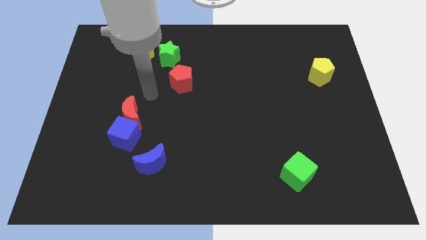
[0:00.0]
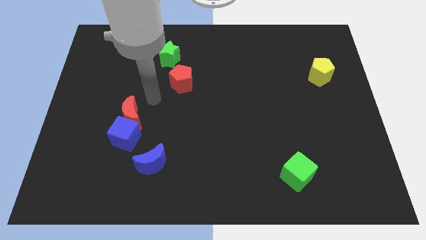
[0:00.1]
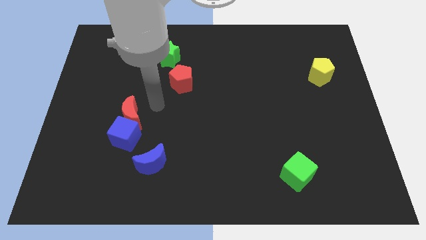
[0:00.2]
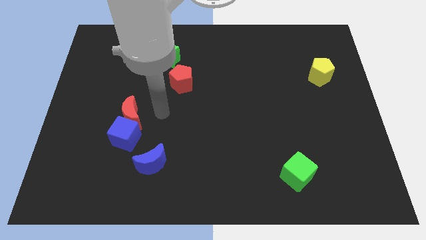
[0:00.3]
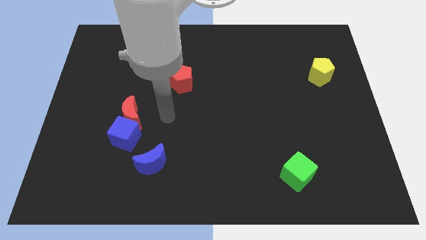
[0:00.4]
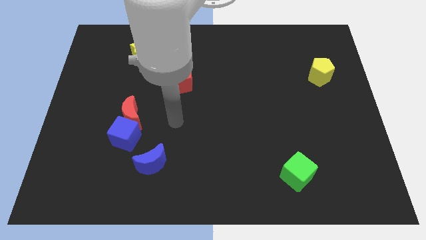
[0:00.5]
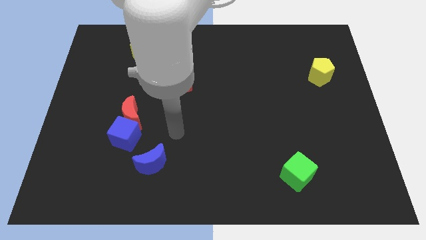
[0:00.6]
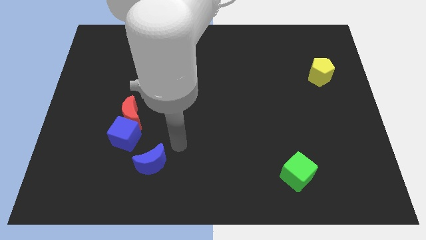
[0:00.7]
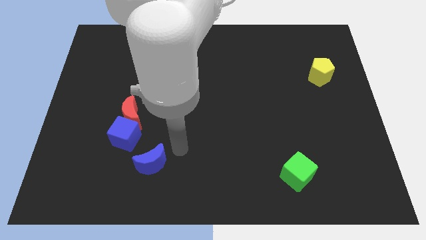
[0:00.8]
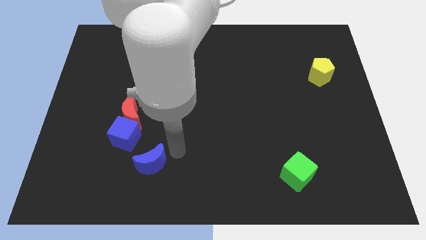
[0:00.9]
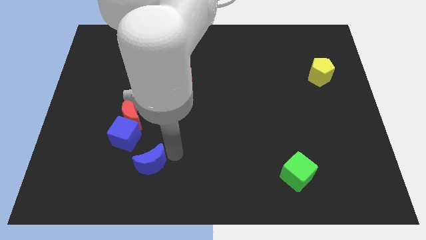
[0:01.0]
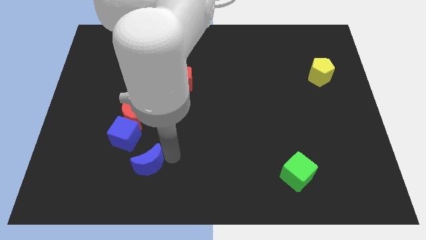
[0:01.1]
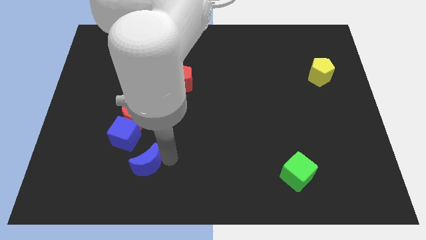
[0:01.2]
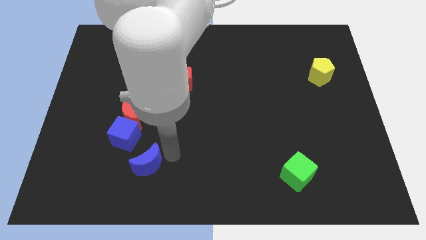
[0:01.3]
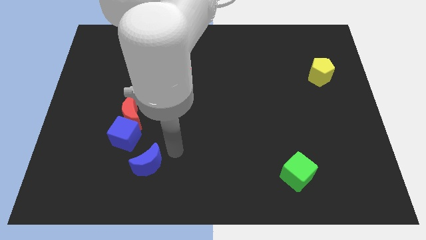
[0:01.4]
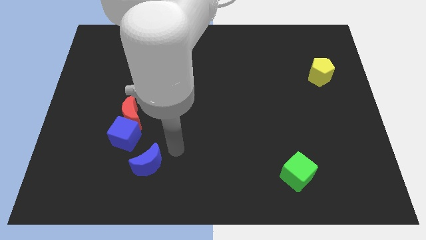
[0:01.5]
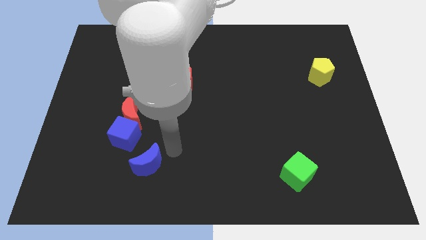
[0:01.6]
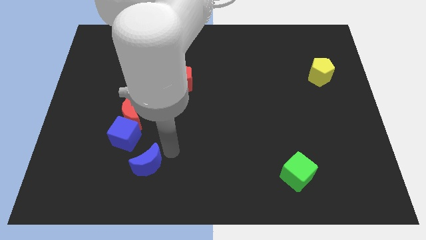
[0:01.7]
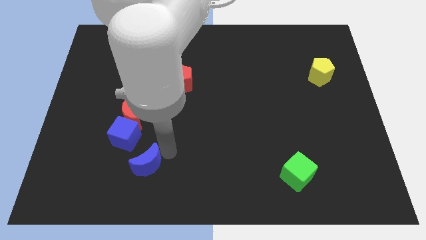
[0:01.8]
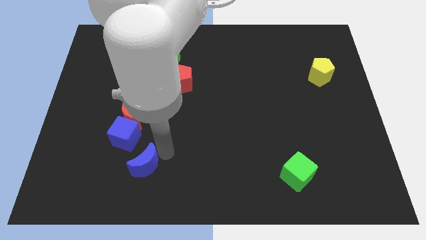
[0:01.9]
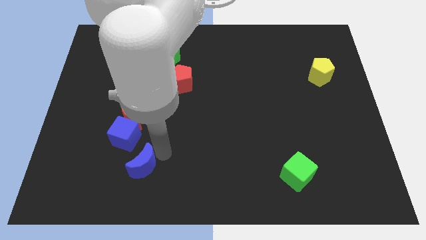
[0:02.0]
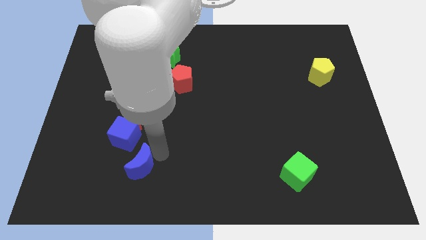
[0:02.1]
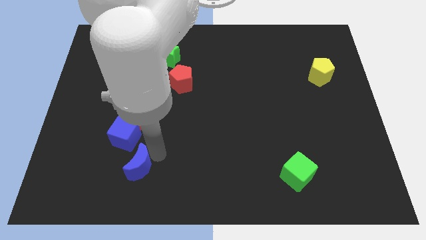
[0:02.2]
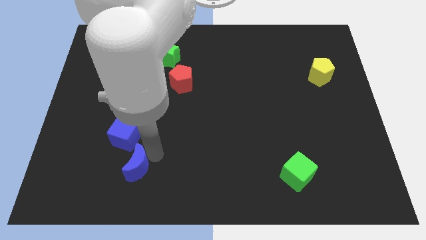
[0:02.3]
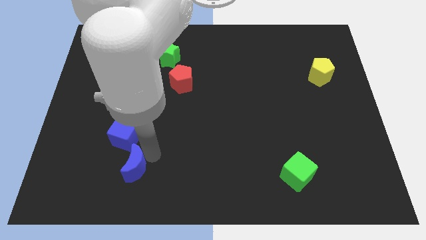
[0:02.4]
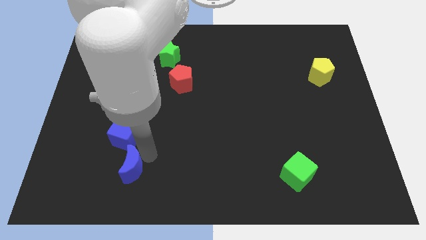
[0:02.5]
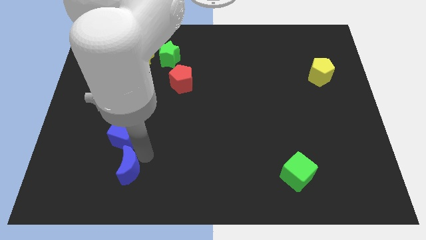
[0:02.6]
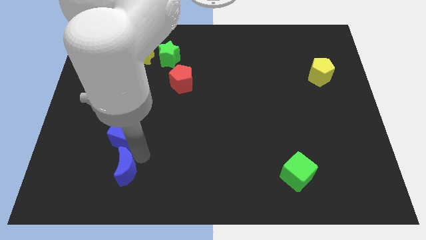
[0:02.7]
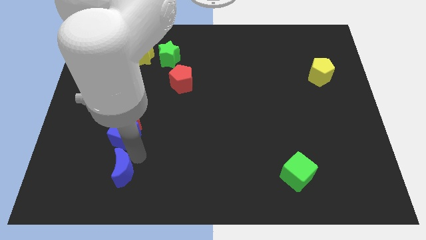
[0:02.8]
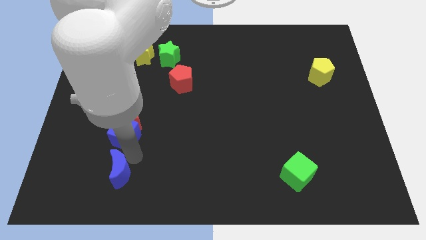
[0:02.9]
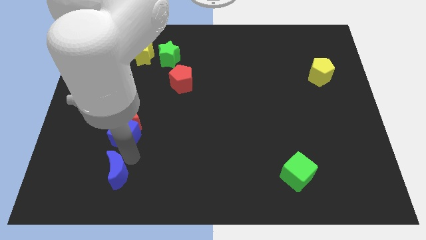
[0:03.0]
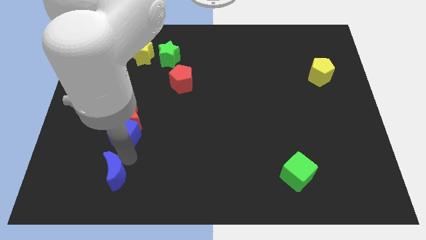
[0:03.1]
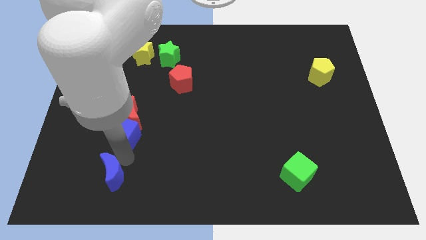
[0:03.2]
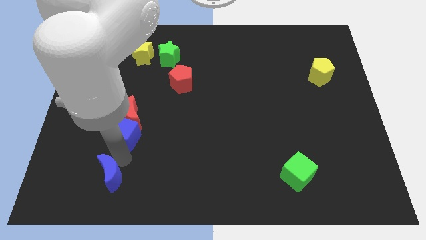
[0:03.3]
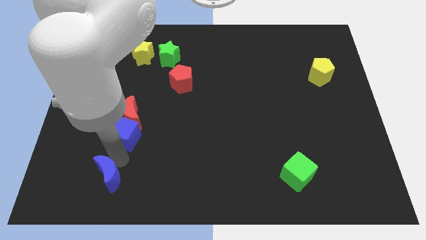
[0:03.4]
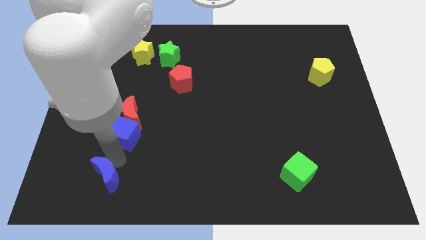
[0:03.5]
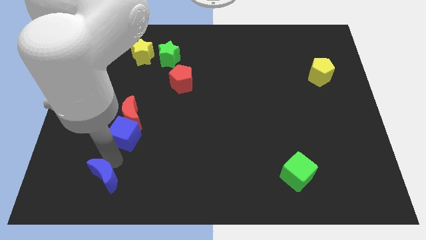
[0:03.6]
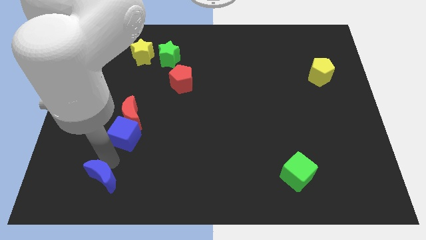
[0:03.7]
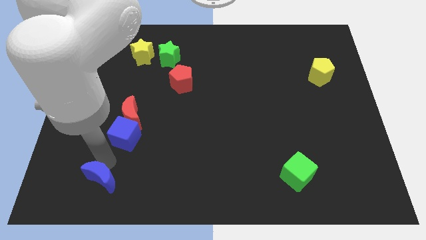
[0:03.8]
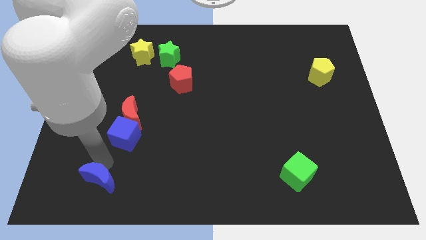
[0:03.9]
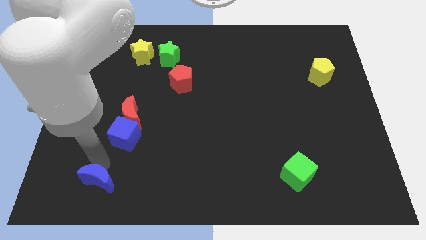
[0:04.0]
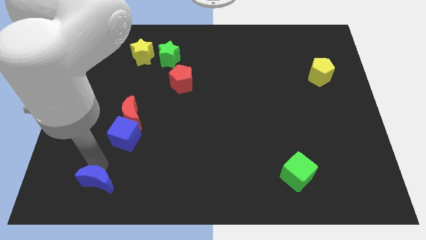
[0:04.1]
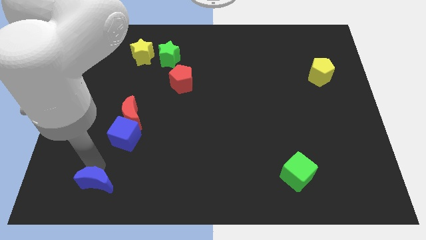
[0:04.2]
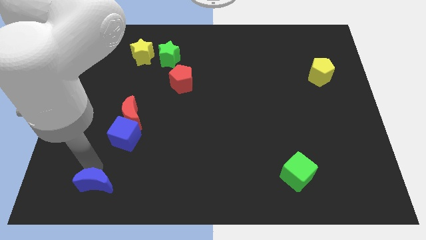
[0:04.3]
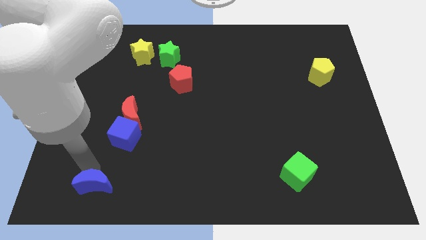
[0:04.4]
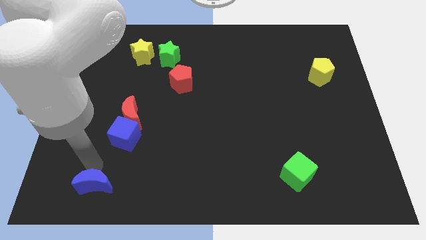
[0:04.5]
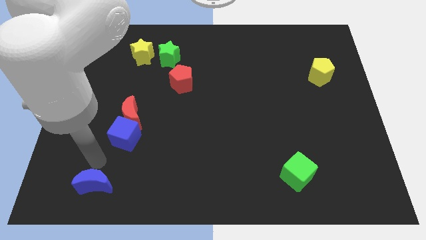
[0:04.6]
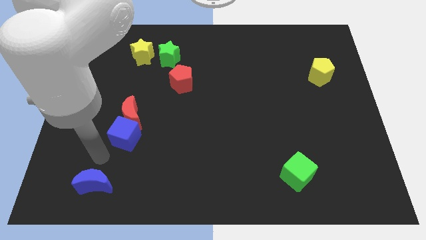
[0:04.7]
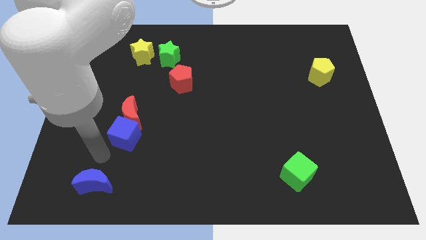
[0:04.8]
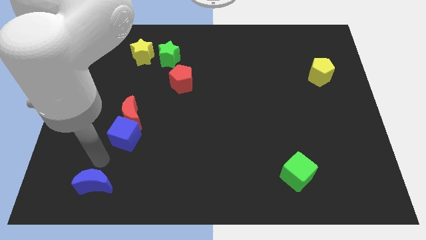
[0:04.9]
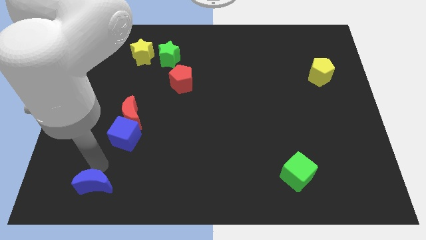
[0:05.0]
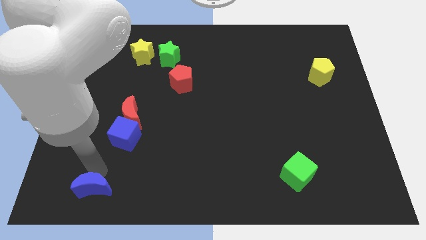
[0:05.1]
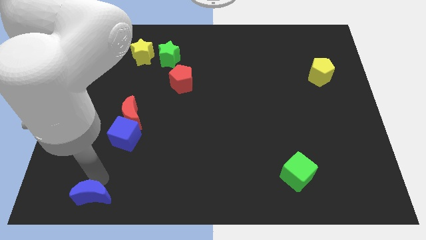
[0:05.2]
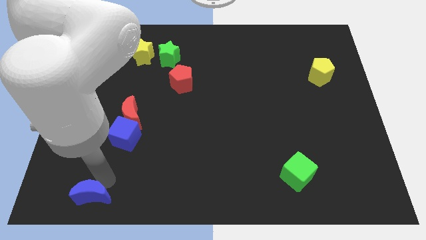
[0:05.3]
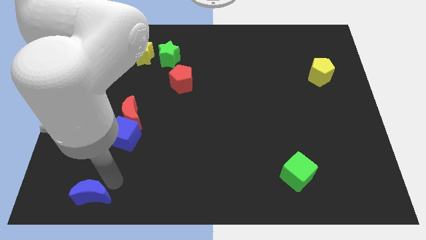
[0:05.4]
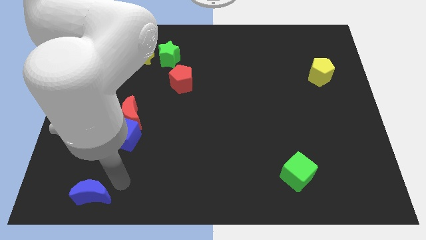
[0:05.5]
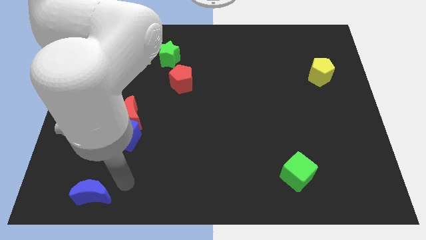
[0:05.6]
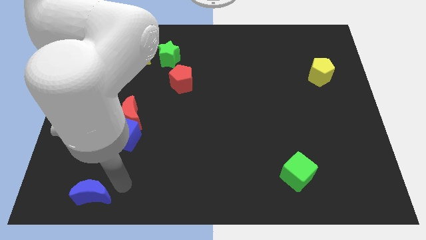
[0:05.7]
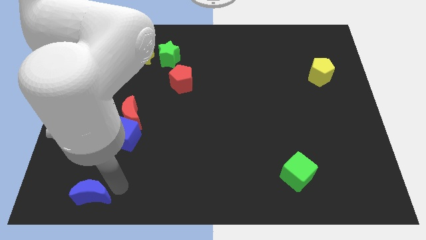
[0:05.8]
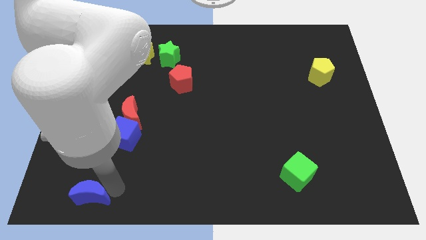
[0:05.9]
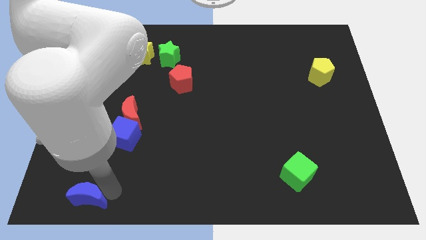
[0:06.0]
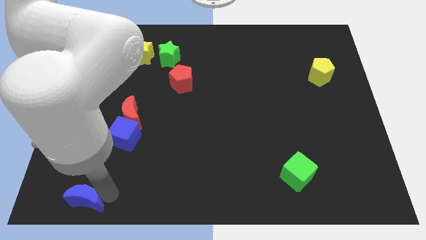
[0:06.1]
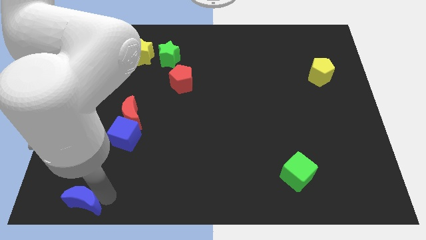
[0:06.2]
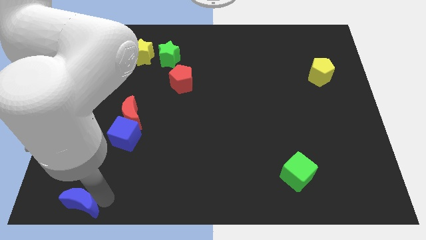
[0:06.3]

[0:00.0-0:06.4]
put the blue moon to the lower left corner
